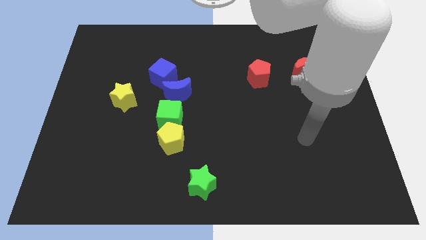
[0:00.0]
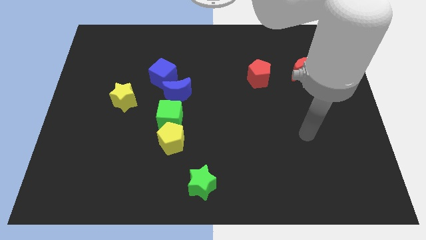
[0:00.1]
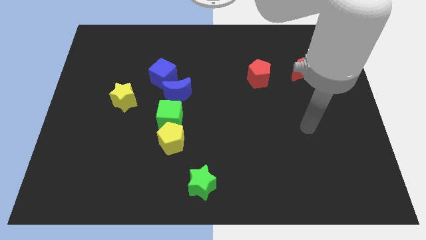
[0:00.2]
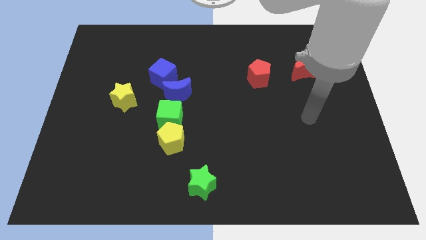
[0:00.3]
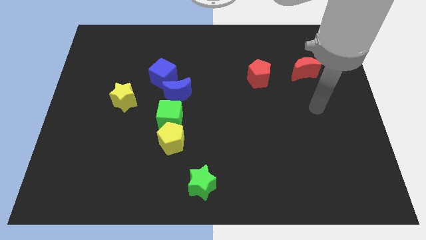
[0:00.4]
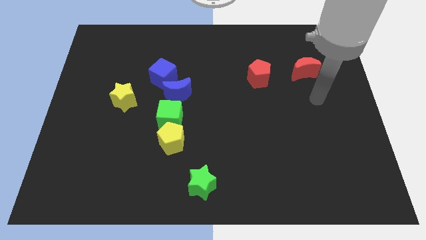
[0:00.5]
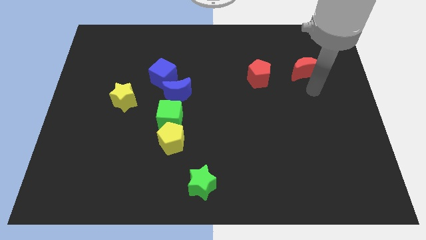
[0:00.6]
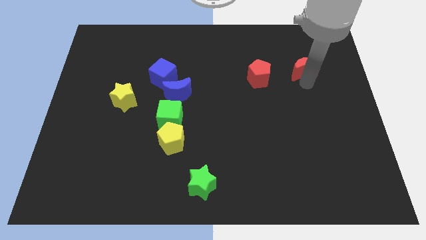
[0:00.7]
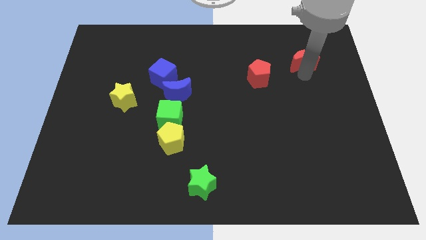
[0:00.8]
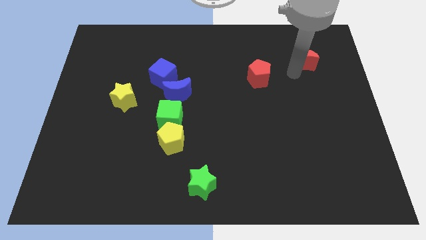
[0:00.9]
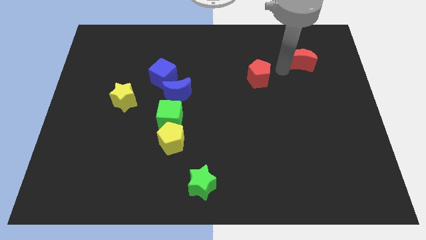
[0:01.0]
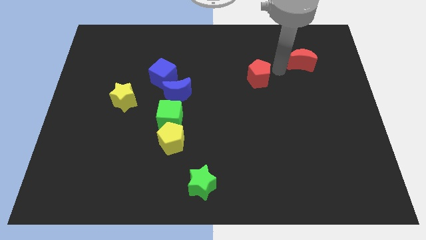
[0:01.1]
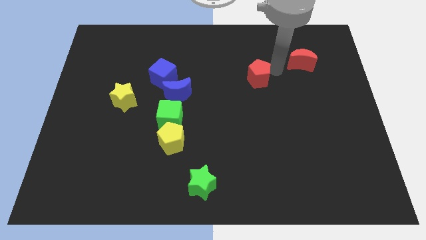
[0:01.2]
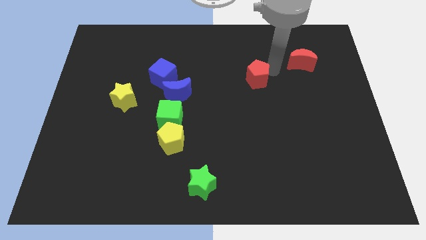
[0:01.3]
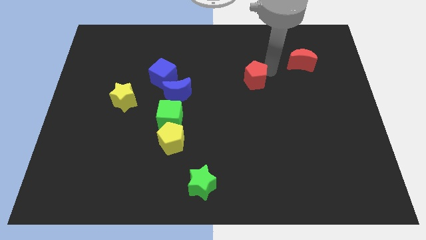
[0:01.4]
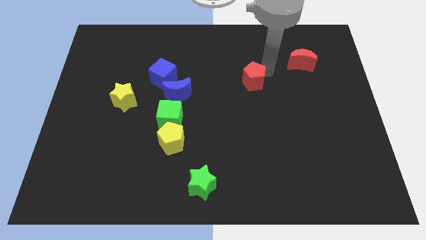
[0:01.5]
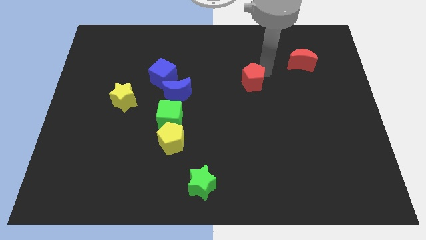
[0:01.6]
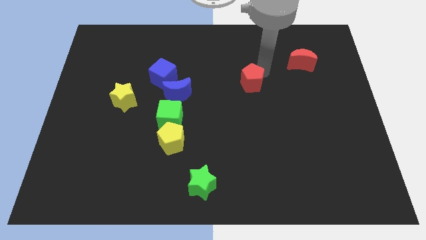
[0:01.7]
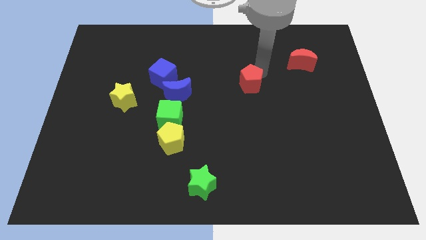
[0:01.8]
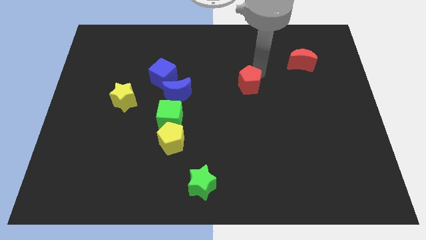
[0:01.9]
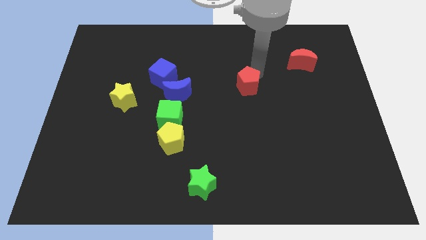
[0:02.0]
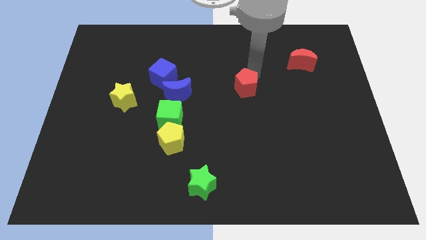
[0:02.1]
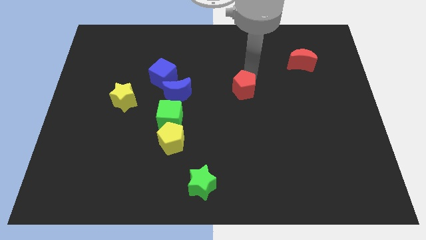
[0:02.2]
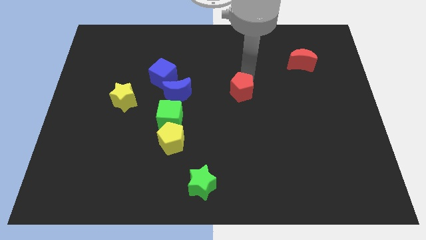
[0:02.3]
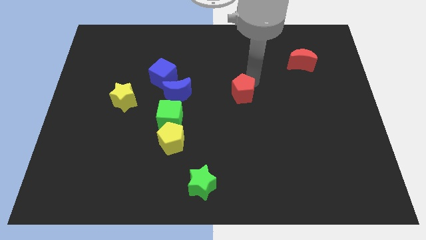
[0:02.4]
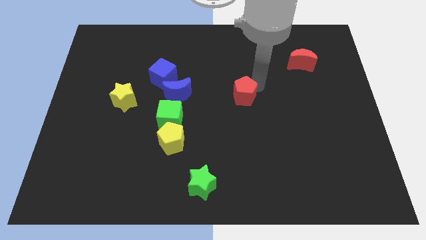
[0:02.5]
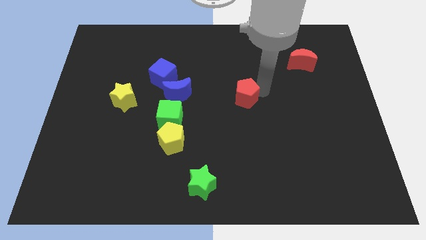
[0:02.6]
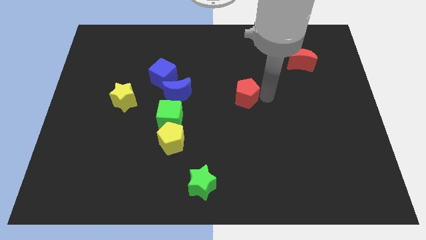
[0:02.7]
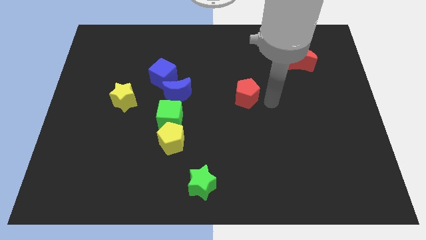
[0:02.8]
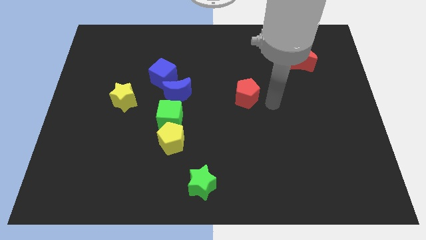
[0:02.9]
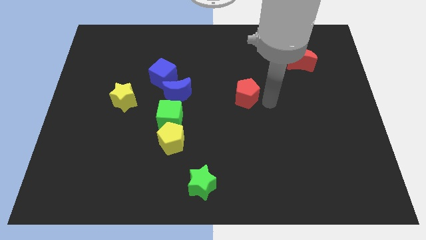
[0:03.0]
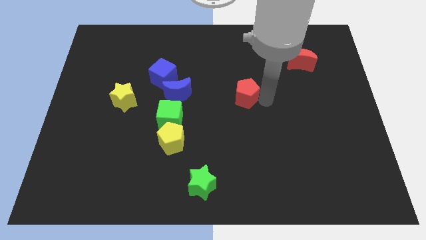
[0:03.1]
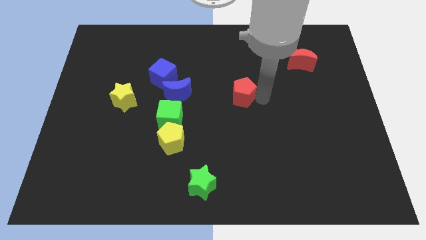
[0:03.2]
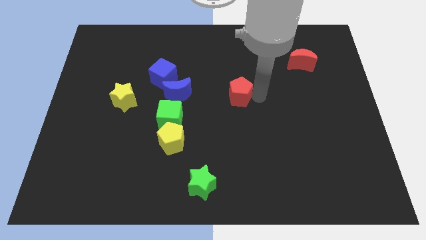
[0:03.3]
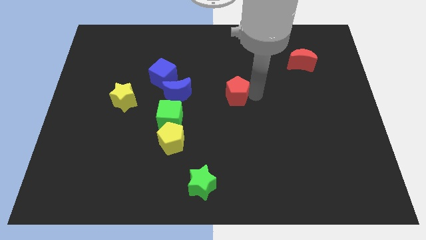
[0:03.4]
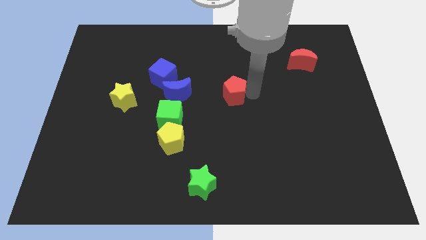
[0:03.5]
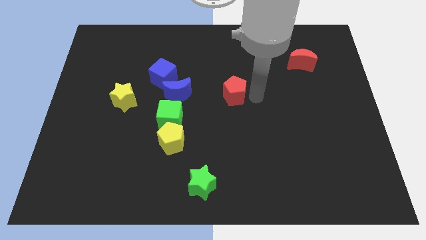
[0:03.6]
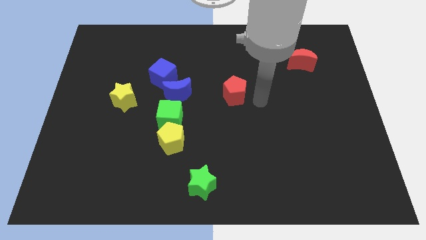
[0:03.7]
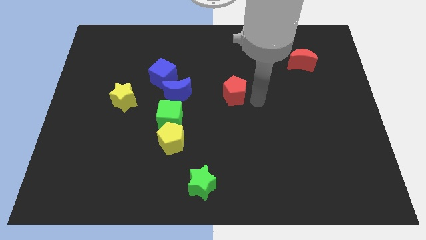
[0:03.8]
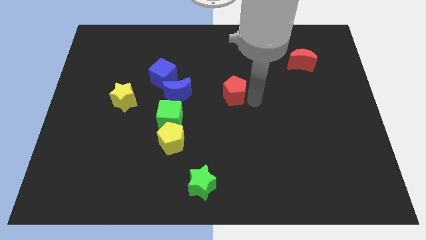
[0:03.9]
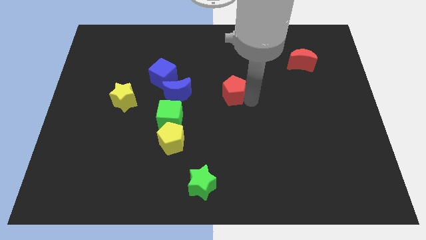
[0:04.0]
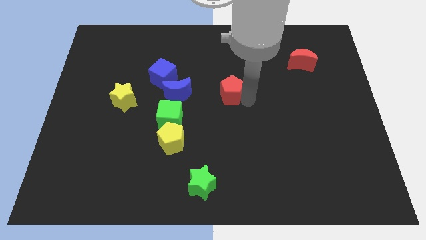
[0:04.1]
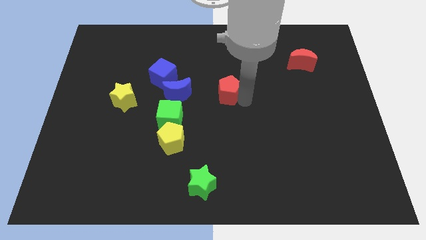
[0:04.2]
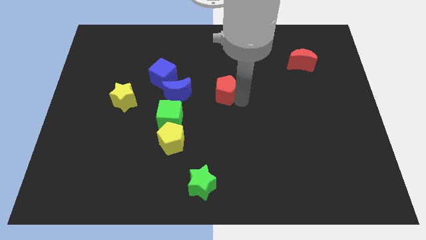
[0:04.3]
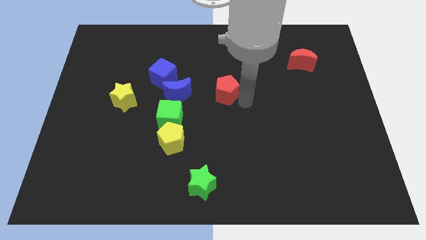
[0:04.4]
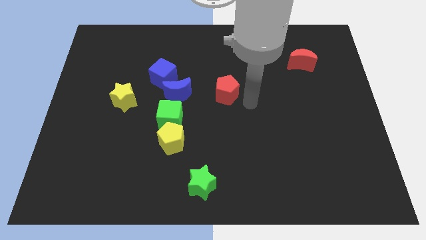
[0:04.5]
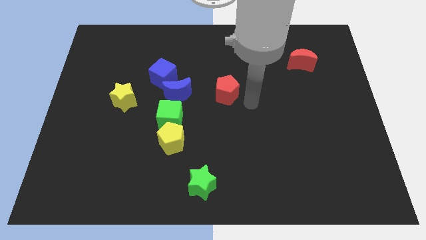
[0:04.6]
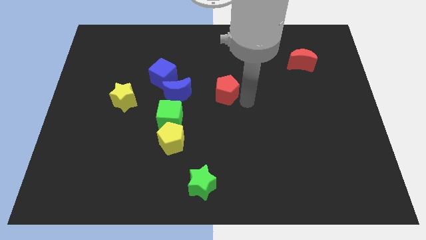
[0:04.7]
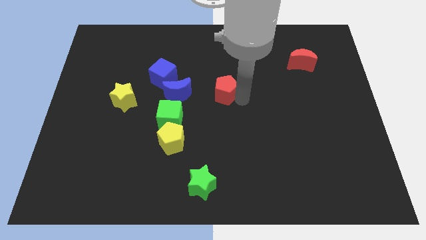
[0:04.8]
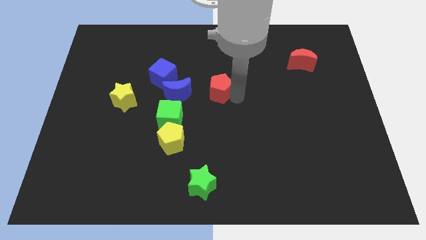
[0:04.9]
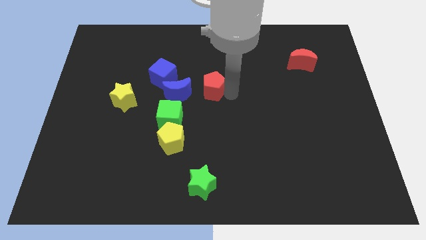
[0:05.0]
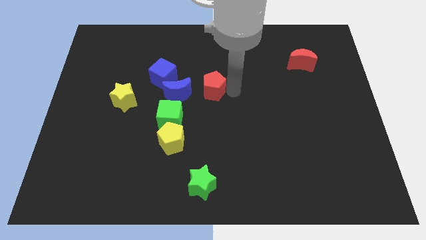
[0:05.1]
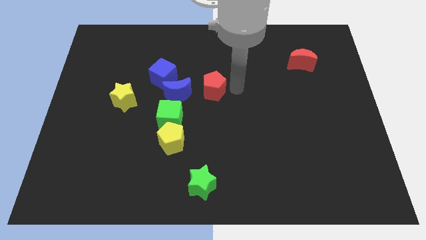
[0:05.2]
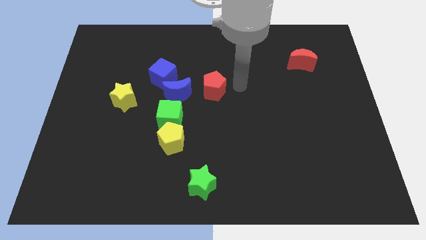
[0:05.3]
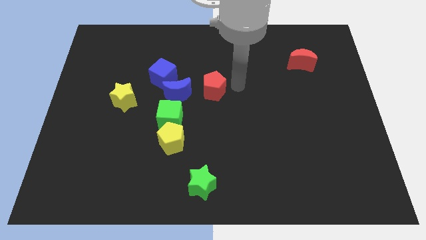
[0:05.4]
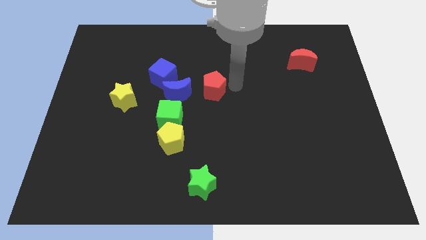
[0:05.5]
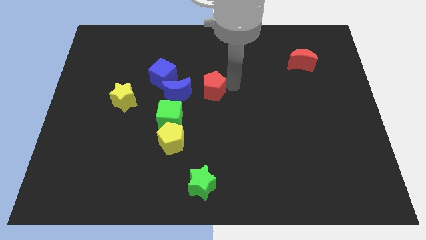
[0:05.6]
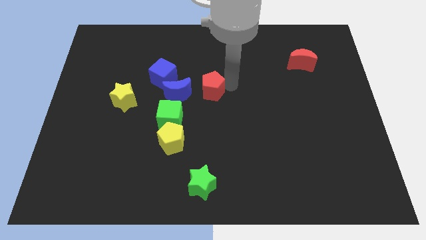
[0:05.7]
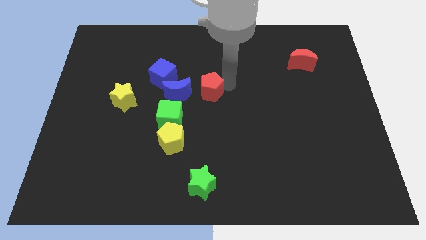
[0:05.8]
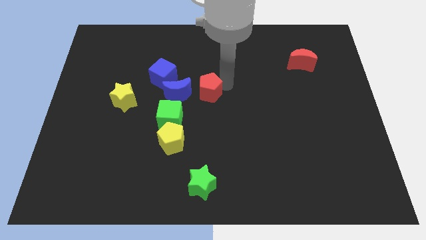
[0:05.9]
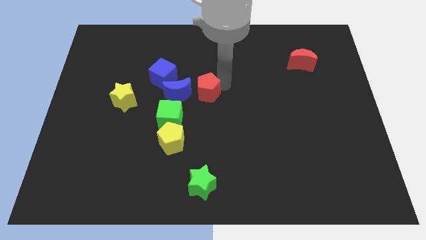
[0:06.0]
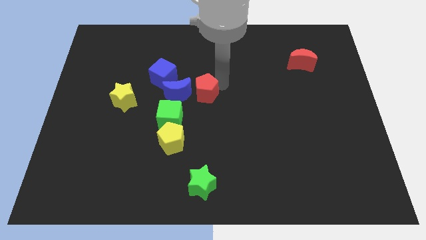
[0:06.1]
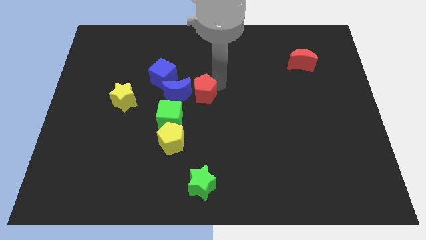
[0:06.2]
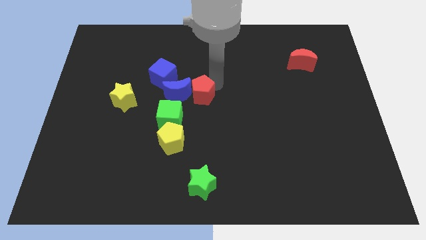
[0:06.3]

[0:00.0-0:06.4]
slide the red pentagon next to the blue moon

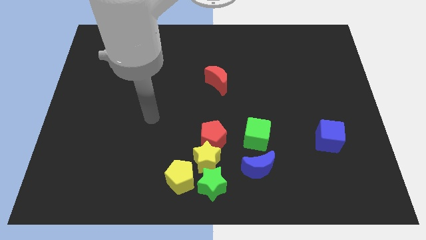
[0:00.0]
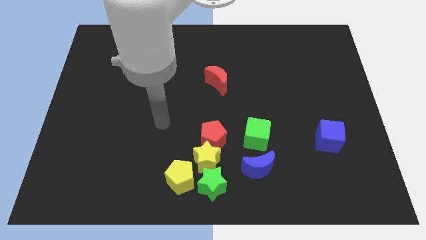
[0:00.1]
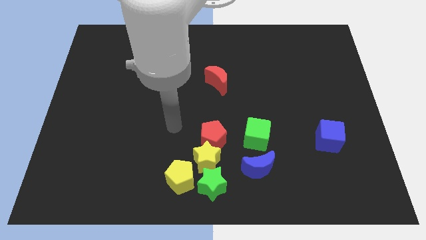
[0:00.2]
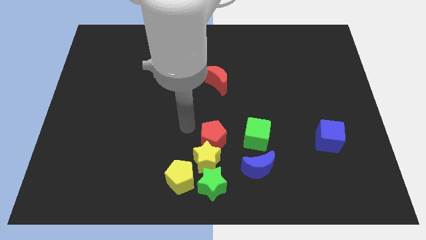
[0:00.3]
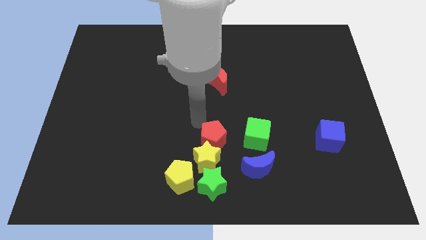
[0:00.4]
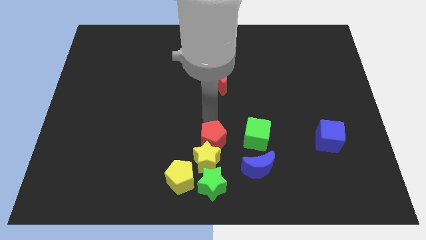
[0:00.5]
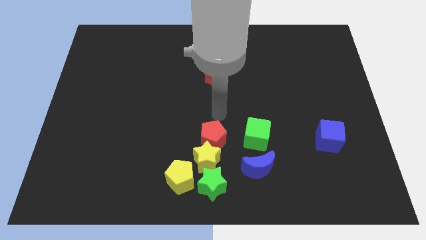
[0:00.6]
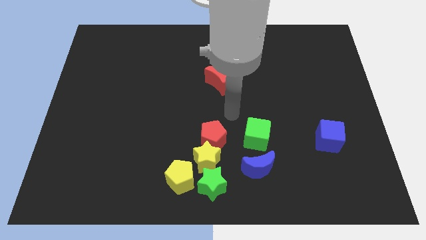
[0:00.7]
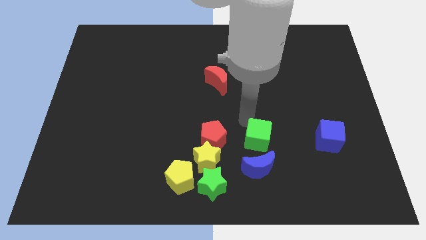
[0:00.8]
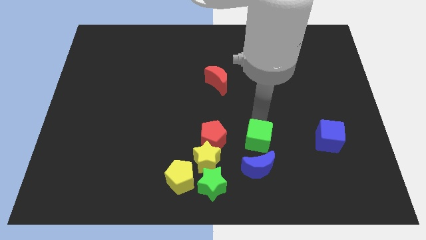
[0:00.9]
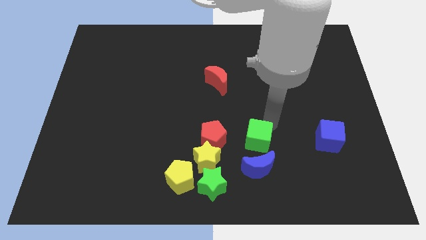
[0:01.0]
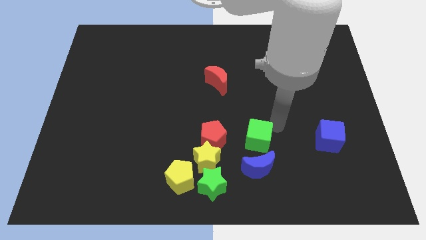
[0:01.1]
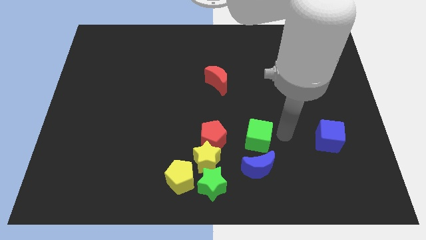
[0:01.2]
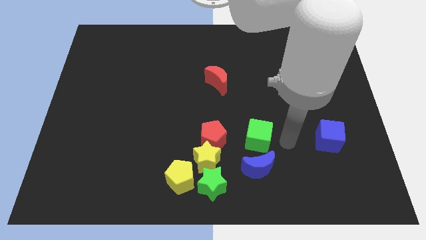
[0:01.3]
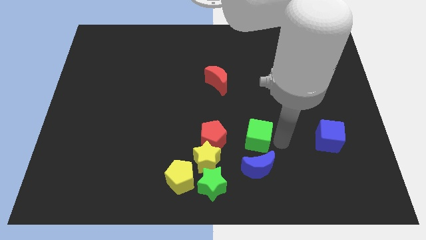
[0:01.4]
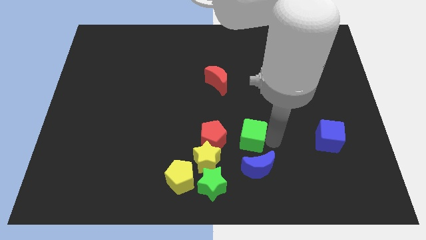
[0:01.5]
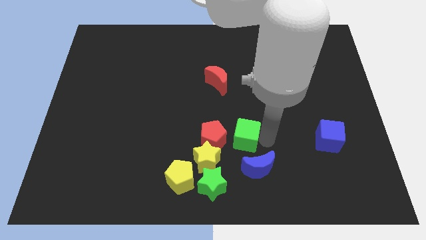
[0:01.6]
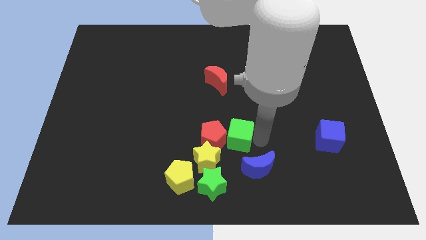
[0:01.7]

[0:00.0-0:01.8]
push the green cube towards the red pentagon
